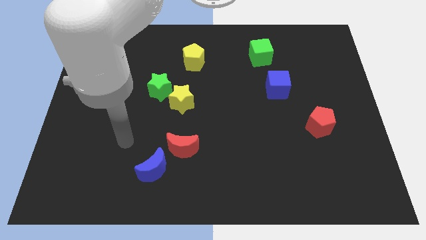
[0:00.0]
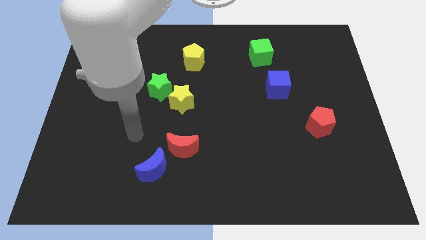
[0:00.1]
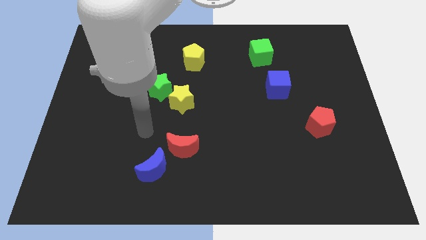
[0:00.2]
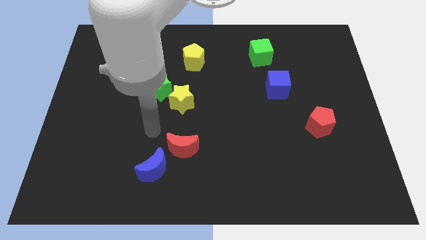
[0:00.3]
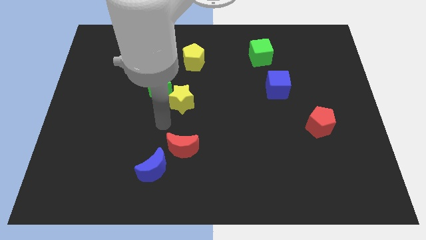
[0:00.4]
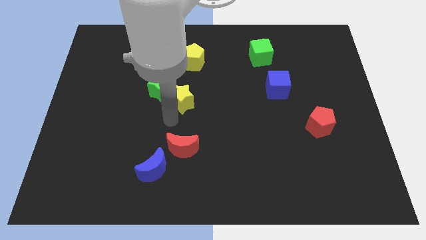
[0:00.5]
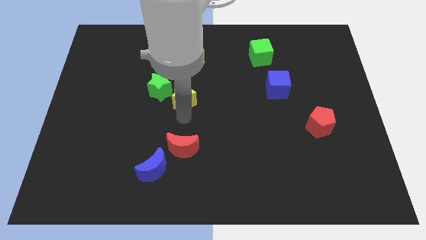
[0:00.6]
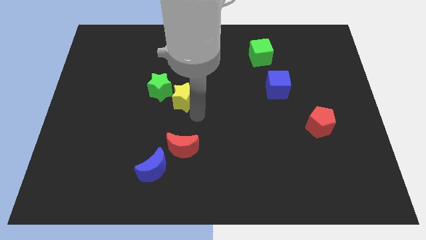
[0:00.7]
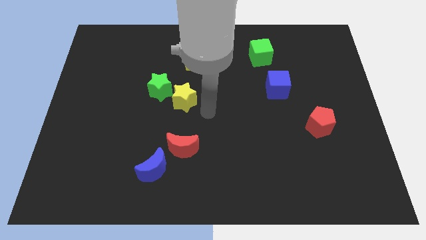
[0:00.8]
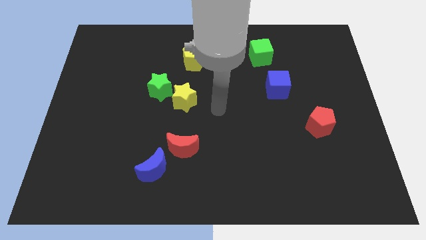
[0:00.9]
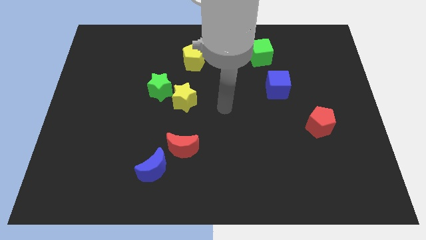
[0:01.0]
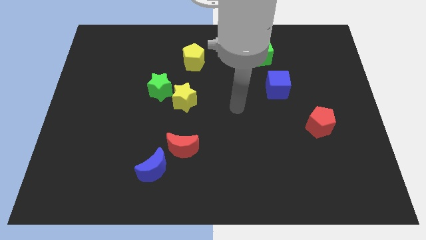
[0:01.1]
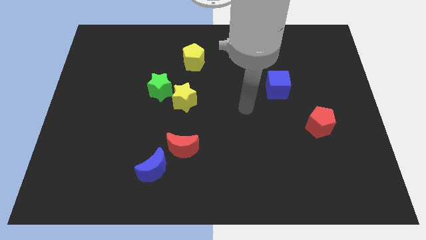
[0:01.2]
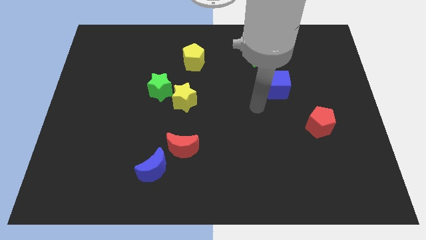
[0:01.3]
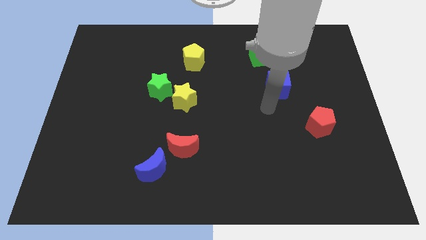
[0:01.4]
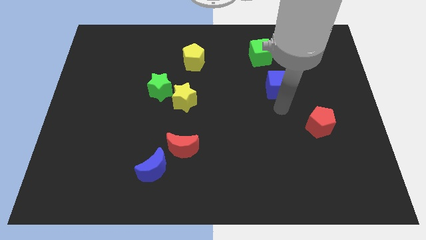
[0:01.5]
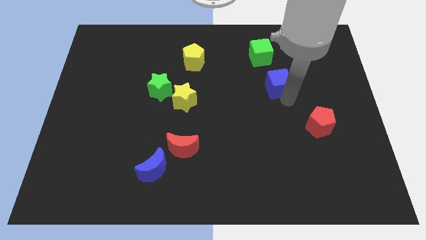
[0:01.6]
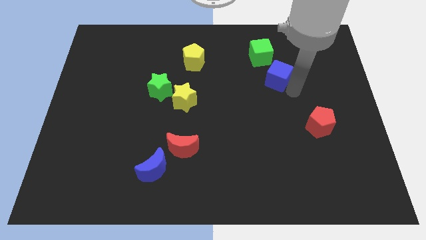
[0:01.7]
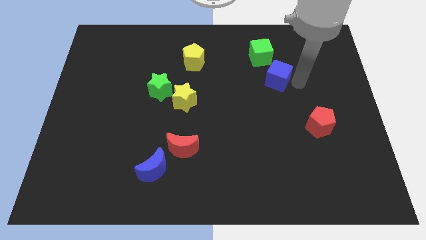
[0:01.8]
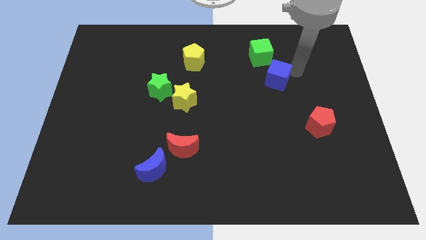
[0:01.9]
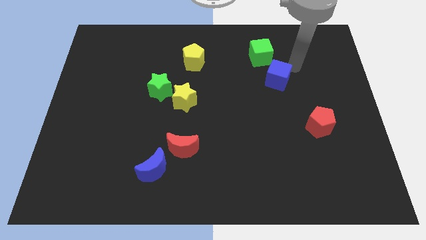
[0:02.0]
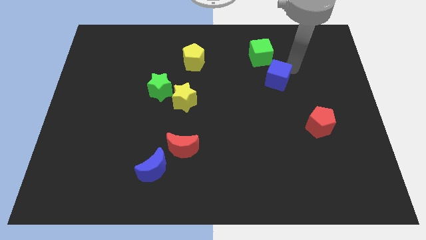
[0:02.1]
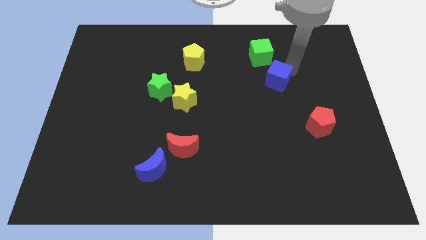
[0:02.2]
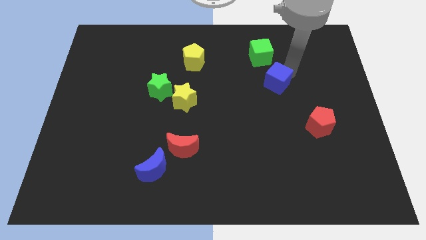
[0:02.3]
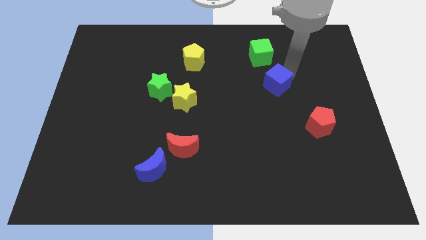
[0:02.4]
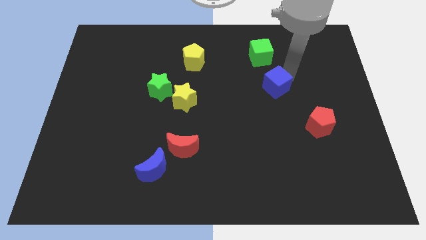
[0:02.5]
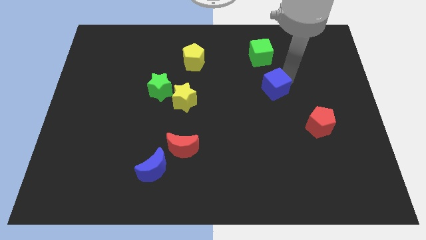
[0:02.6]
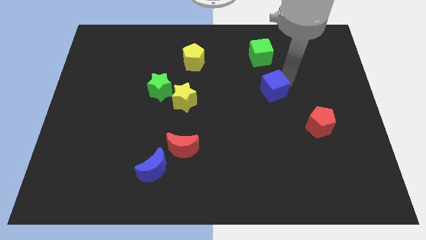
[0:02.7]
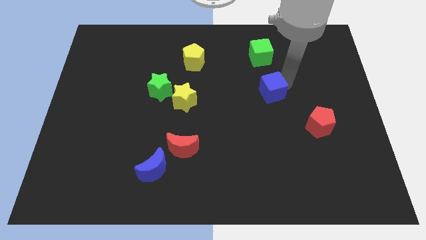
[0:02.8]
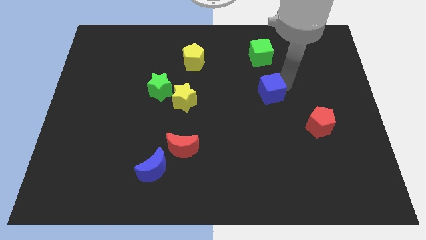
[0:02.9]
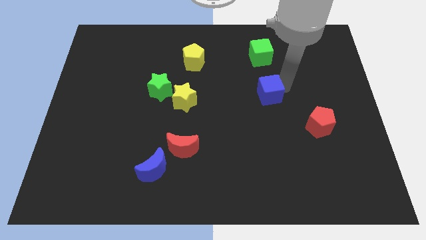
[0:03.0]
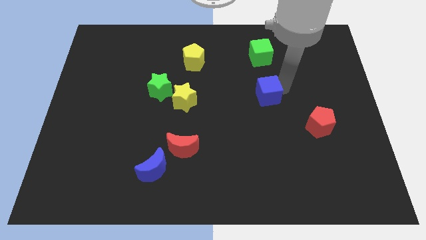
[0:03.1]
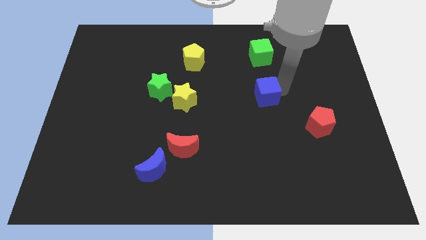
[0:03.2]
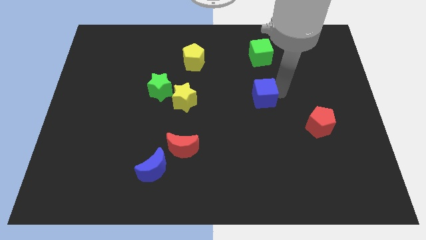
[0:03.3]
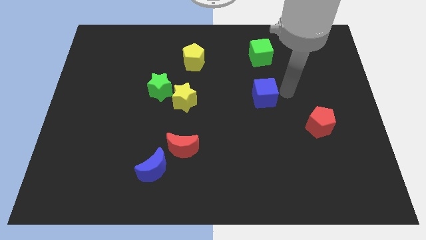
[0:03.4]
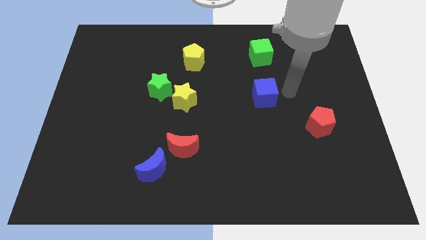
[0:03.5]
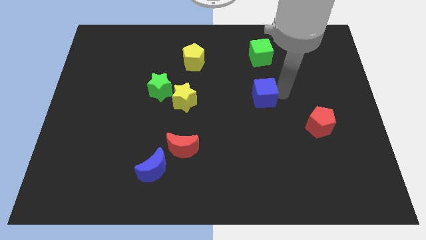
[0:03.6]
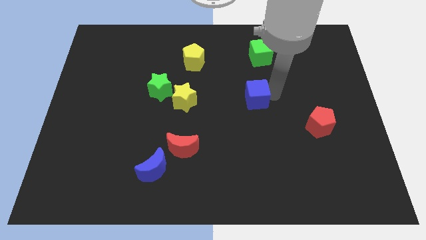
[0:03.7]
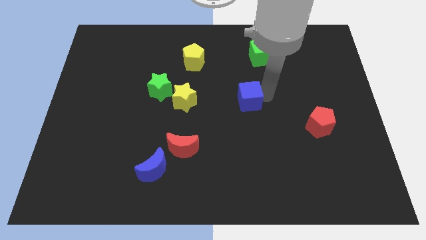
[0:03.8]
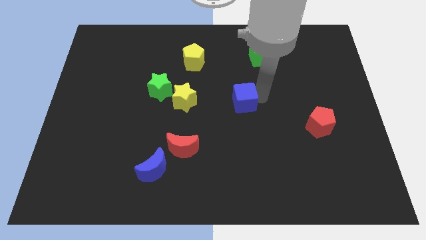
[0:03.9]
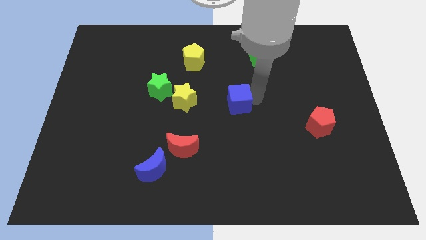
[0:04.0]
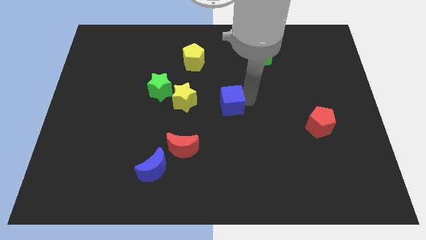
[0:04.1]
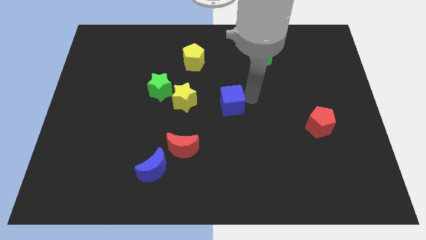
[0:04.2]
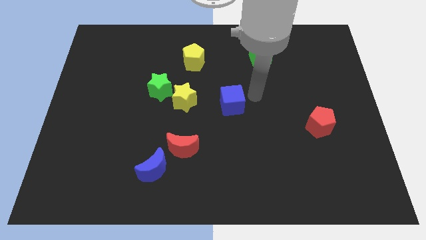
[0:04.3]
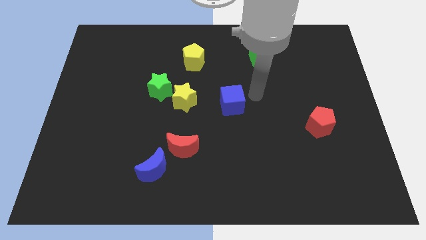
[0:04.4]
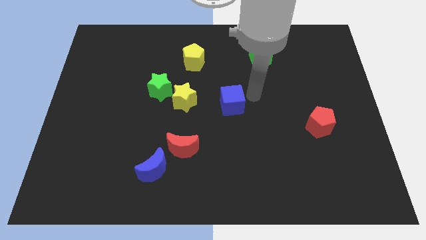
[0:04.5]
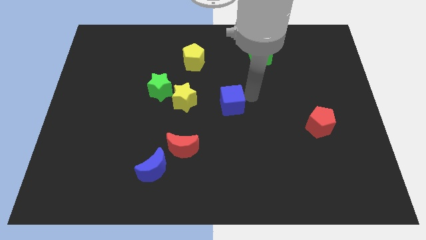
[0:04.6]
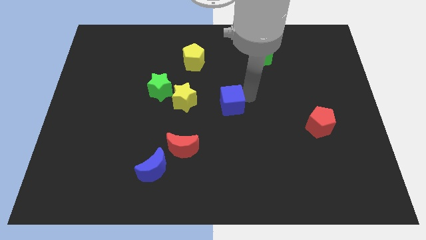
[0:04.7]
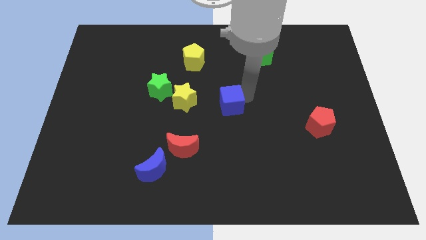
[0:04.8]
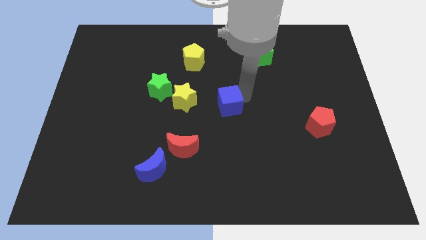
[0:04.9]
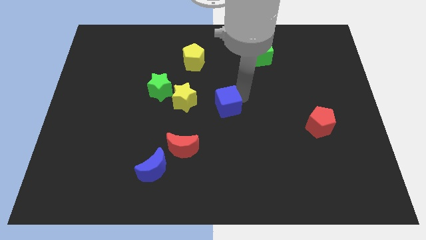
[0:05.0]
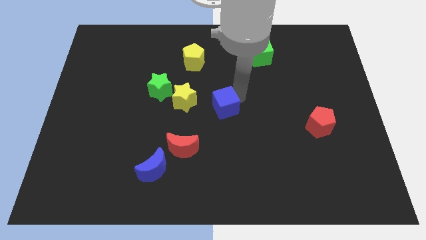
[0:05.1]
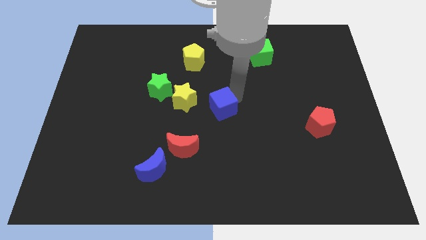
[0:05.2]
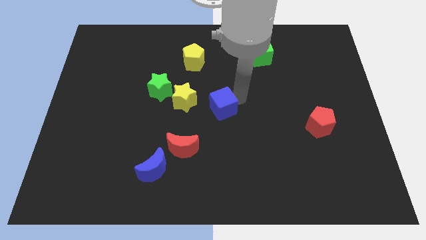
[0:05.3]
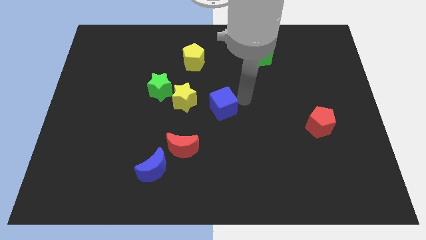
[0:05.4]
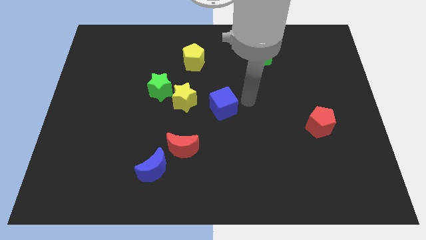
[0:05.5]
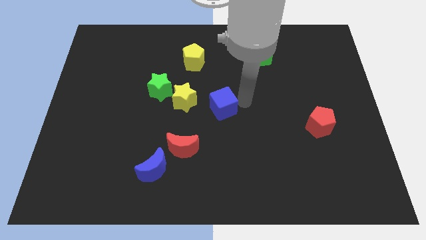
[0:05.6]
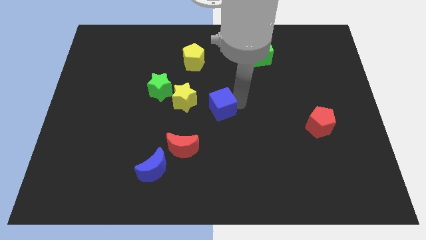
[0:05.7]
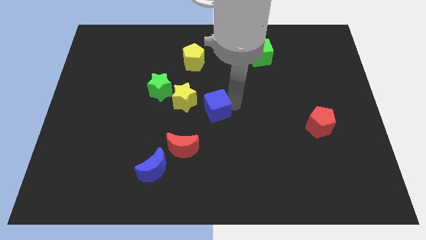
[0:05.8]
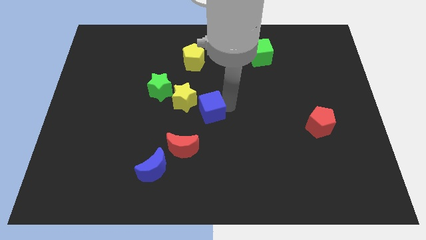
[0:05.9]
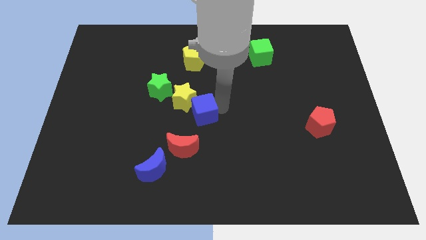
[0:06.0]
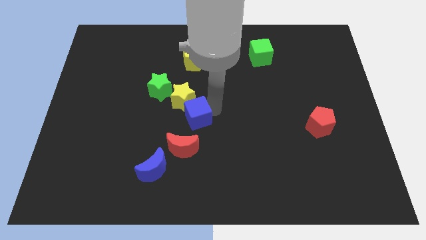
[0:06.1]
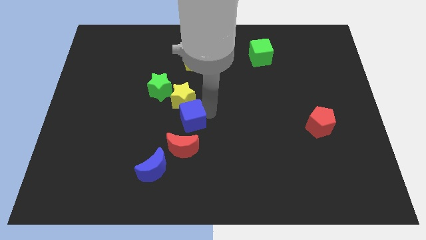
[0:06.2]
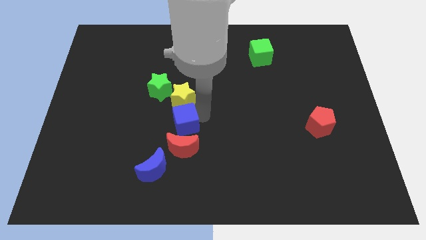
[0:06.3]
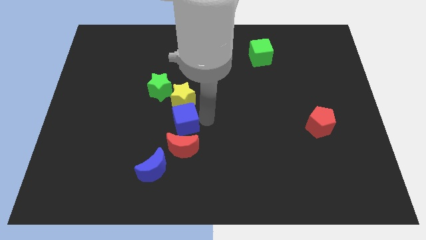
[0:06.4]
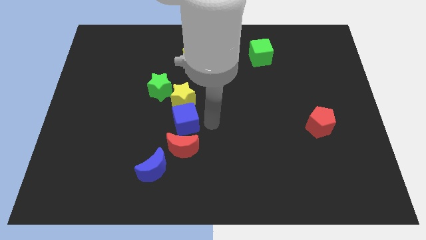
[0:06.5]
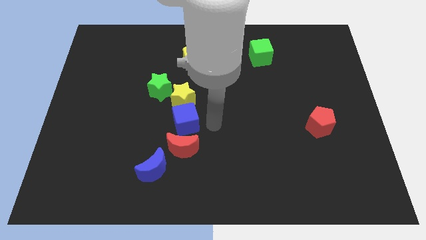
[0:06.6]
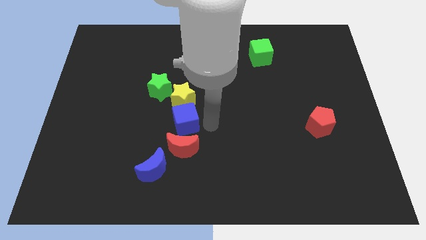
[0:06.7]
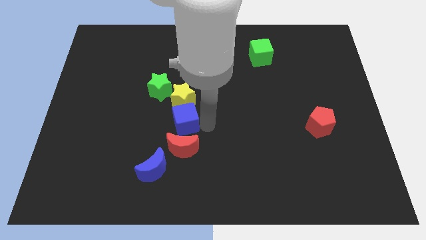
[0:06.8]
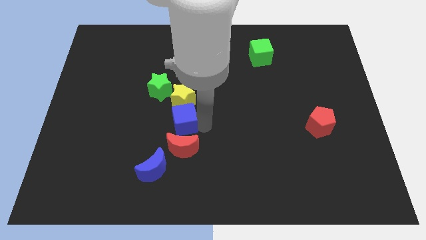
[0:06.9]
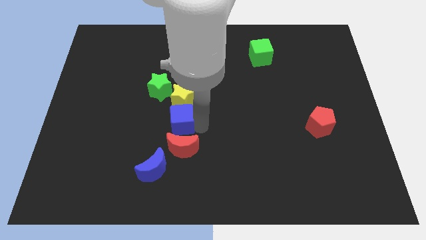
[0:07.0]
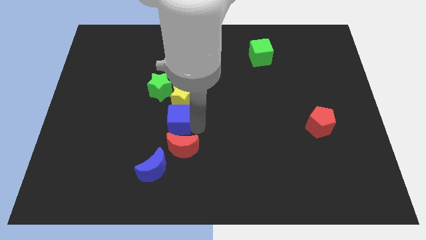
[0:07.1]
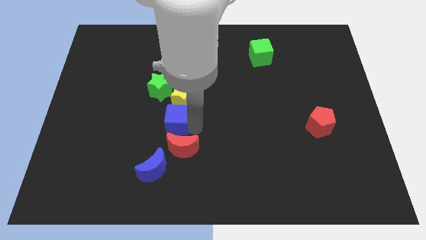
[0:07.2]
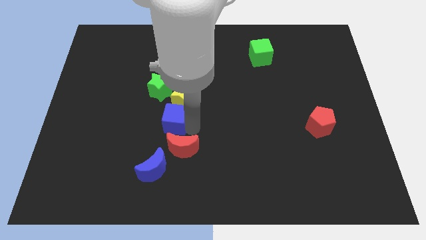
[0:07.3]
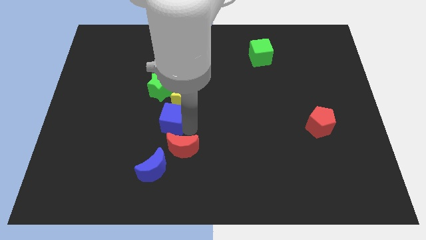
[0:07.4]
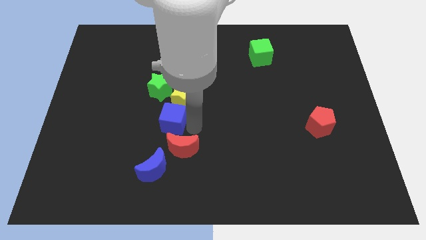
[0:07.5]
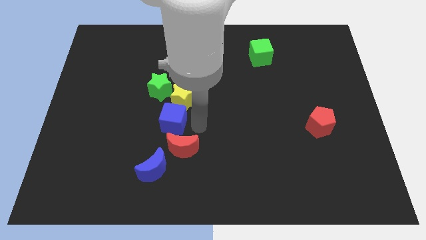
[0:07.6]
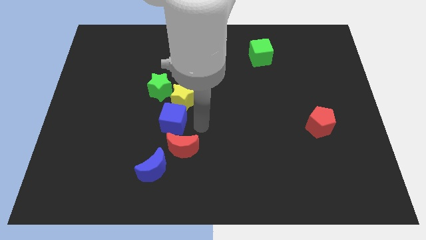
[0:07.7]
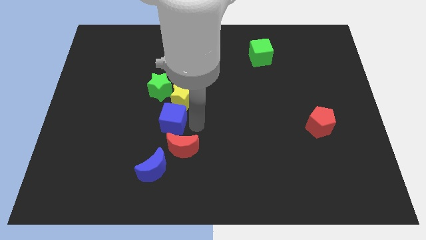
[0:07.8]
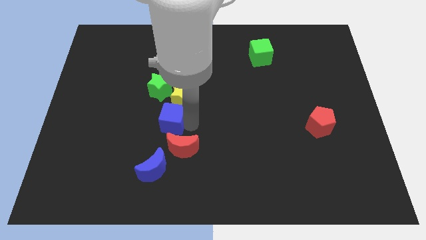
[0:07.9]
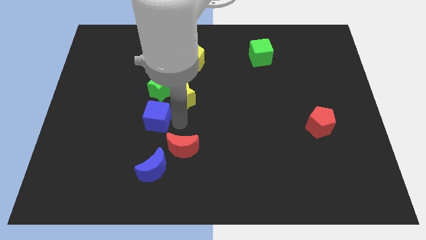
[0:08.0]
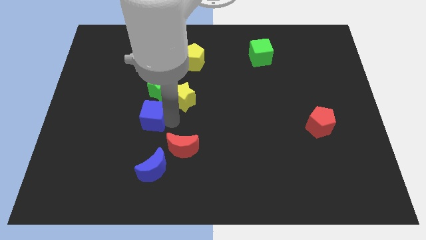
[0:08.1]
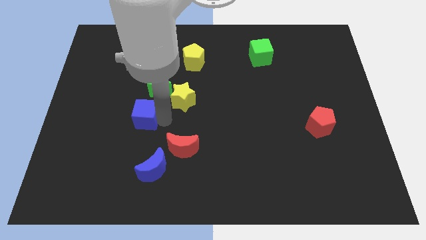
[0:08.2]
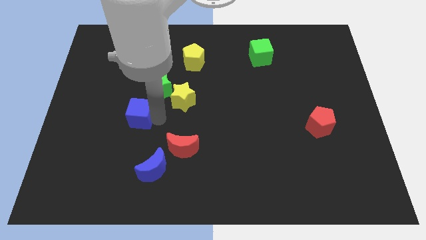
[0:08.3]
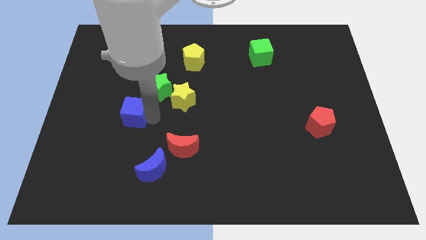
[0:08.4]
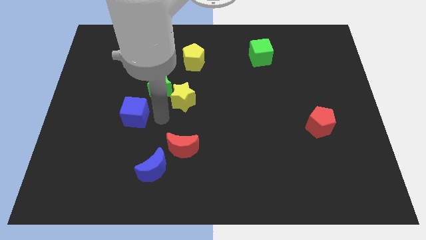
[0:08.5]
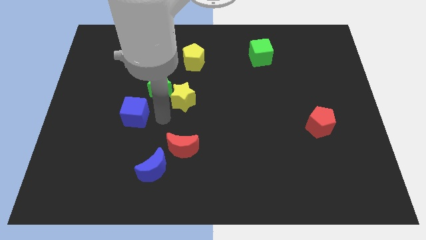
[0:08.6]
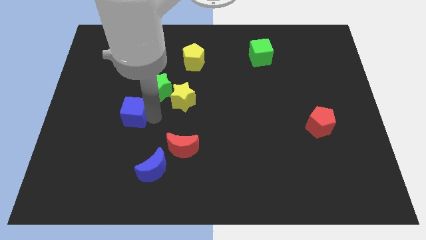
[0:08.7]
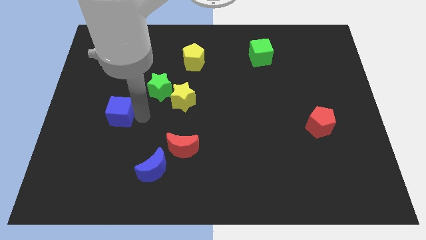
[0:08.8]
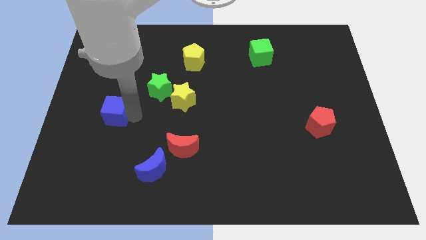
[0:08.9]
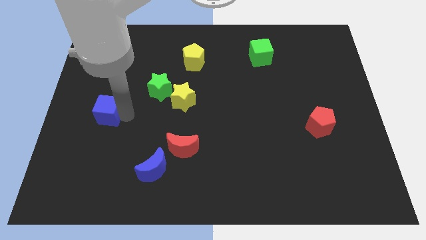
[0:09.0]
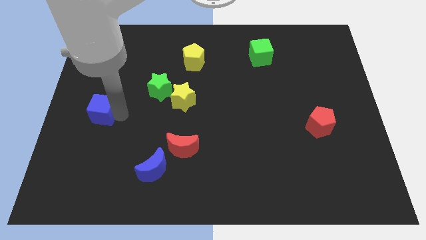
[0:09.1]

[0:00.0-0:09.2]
put the blue cube to the left side
